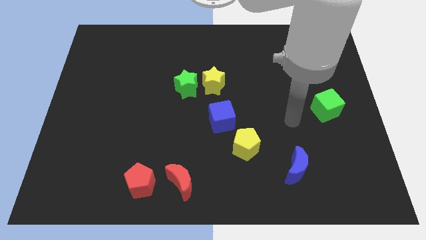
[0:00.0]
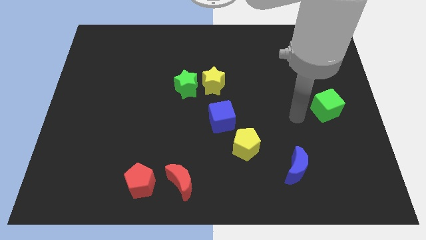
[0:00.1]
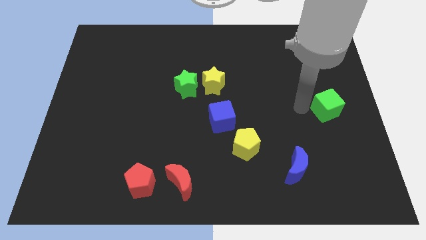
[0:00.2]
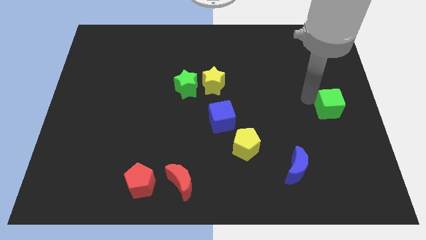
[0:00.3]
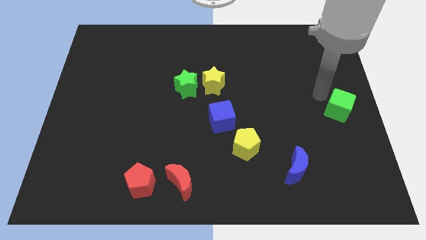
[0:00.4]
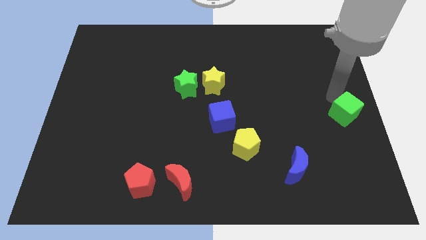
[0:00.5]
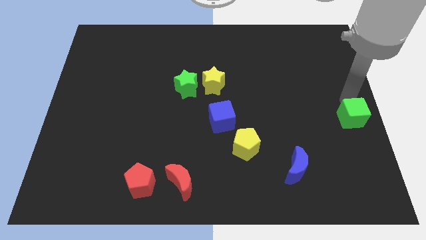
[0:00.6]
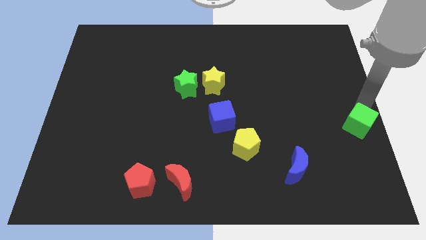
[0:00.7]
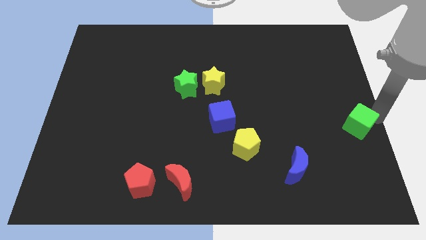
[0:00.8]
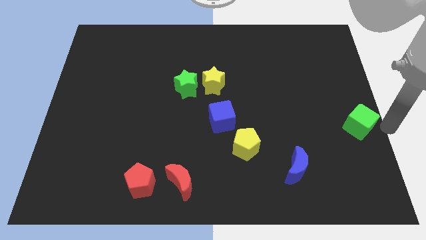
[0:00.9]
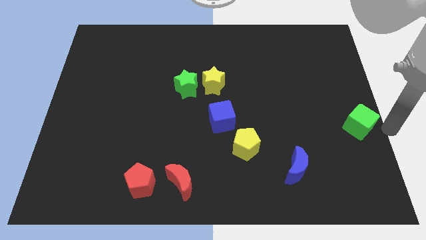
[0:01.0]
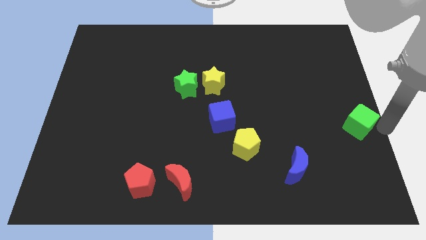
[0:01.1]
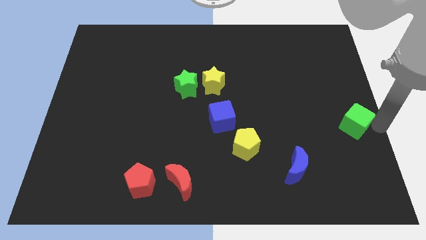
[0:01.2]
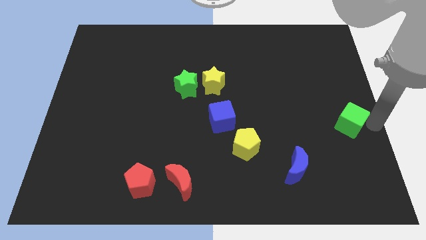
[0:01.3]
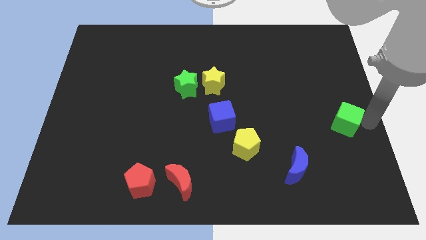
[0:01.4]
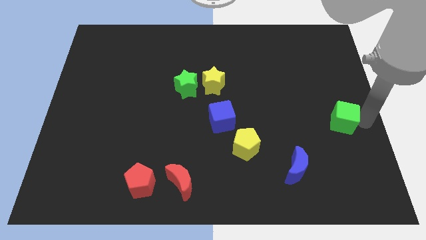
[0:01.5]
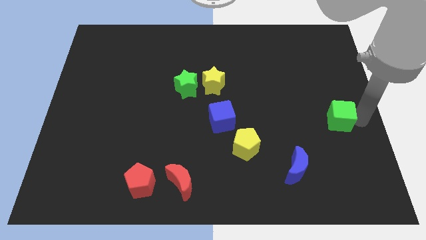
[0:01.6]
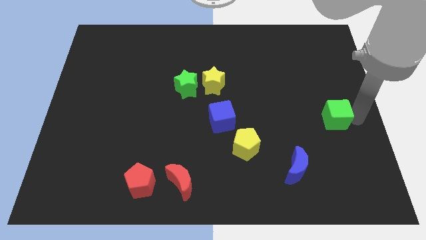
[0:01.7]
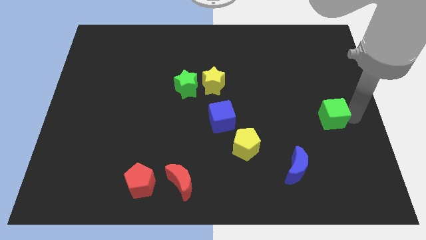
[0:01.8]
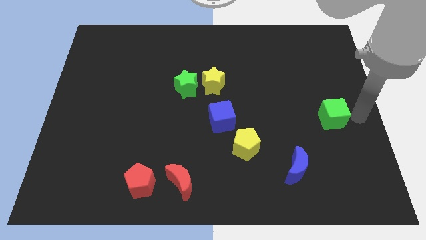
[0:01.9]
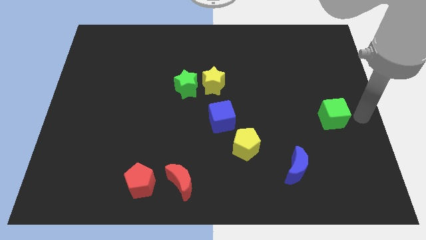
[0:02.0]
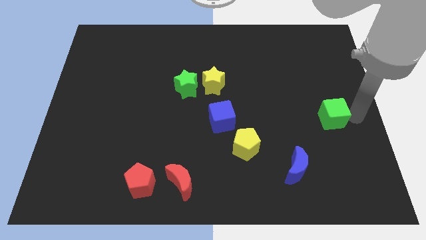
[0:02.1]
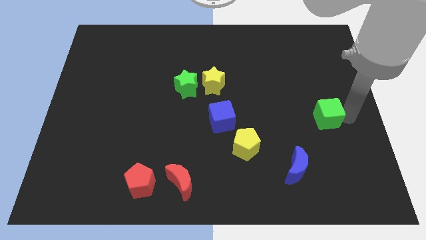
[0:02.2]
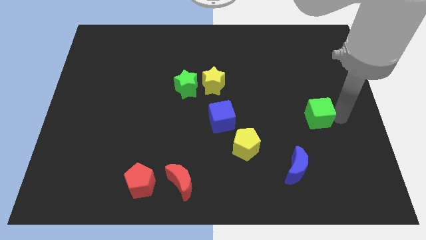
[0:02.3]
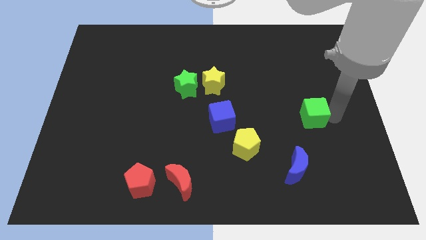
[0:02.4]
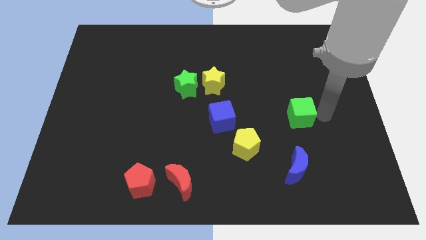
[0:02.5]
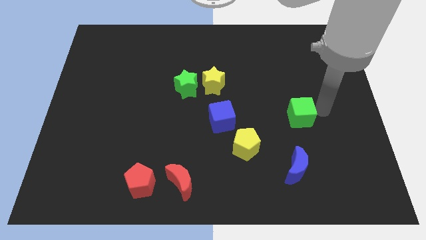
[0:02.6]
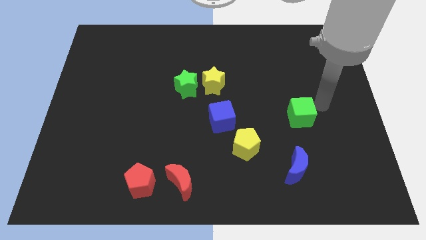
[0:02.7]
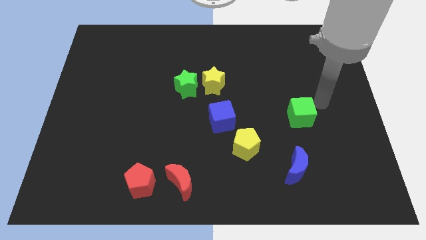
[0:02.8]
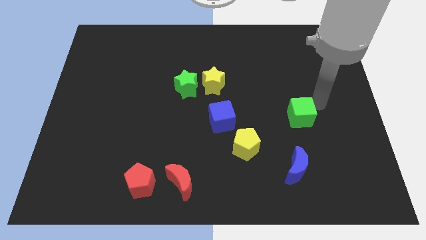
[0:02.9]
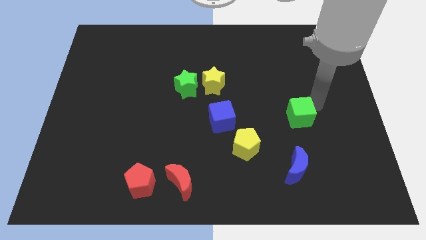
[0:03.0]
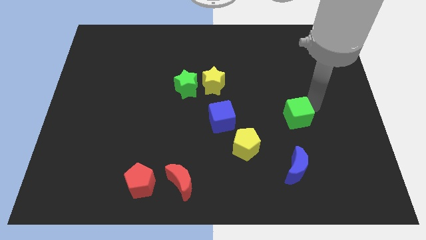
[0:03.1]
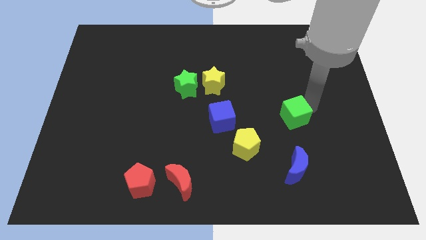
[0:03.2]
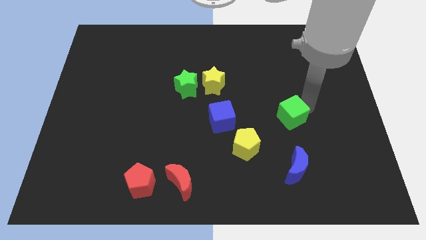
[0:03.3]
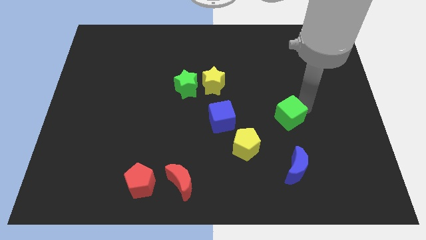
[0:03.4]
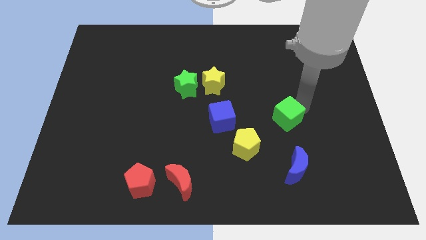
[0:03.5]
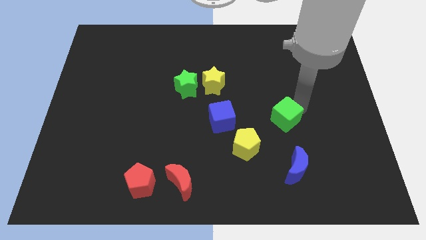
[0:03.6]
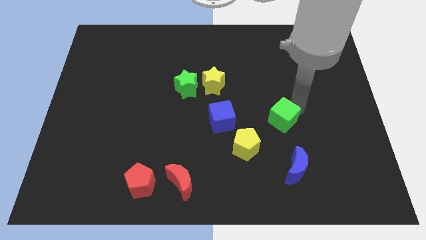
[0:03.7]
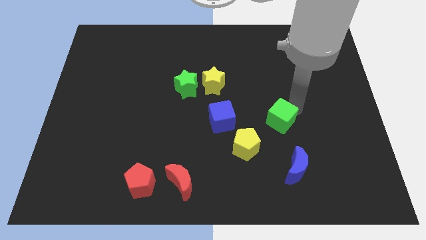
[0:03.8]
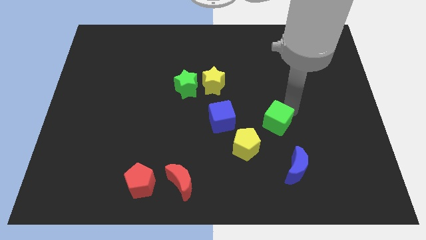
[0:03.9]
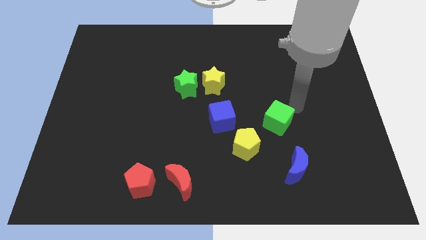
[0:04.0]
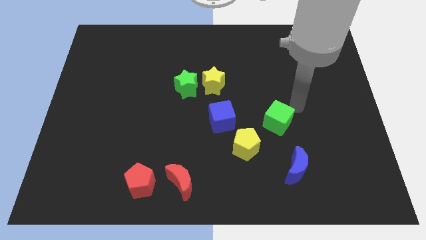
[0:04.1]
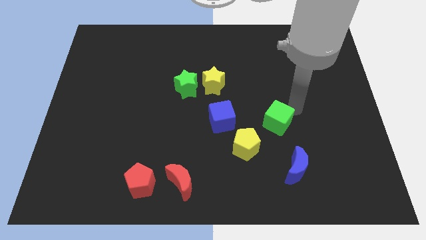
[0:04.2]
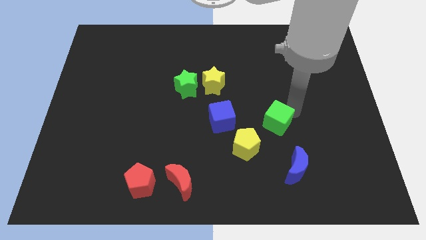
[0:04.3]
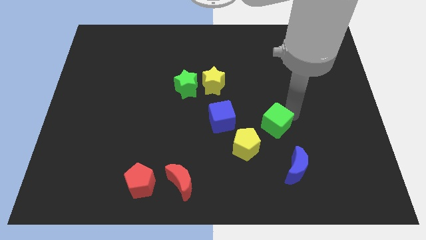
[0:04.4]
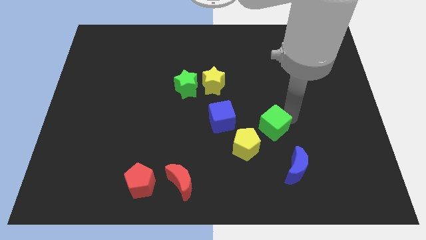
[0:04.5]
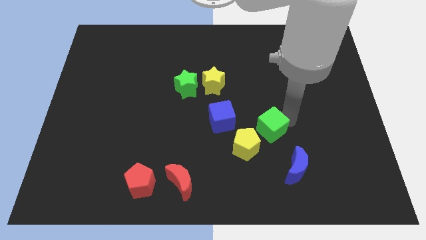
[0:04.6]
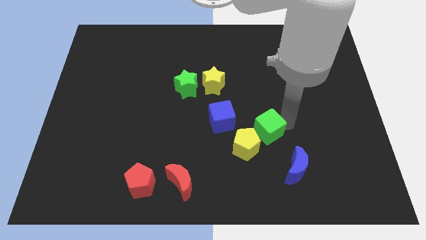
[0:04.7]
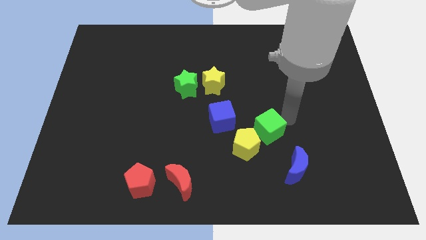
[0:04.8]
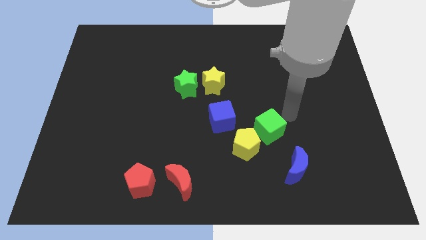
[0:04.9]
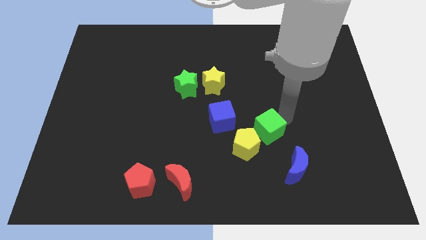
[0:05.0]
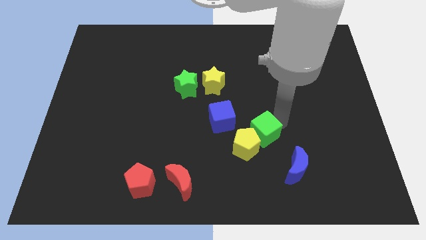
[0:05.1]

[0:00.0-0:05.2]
slide the green cube towards the yellow pentagon

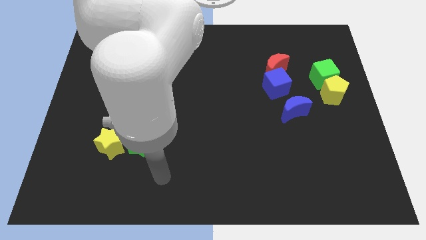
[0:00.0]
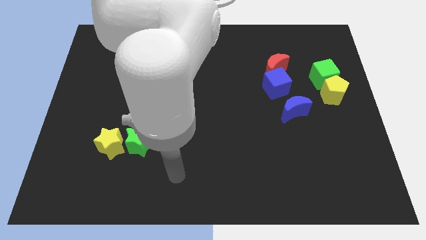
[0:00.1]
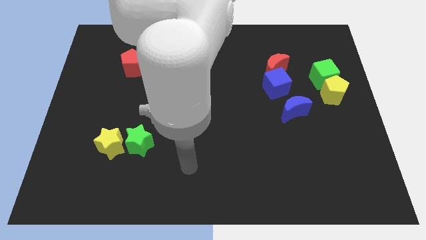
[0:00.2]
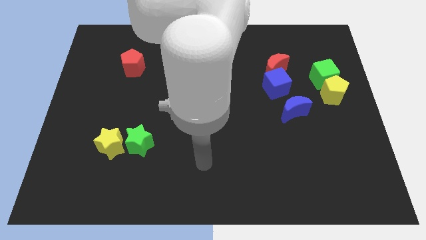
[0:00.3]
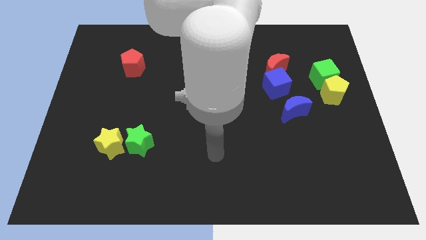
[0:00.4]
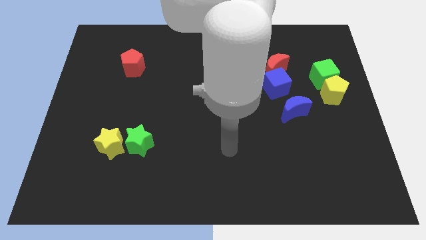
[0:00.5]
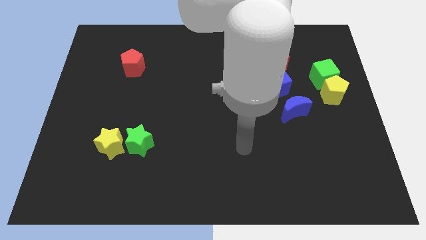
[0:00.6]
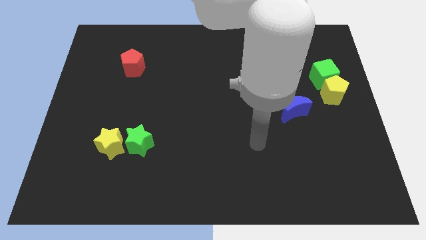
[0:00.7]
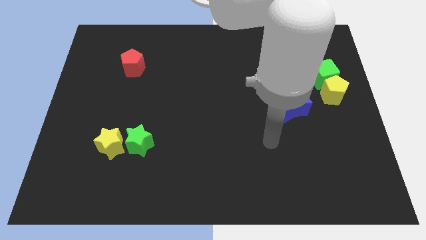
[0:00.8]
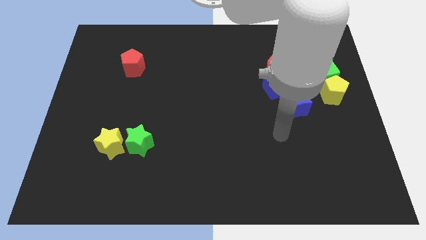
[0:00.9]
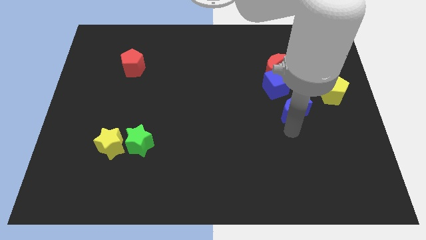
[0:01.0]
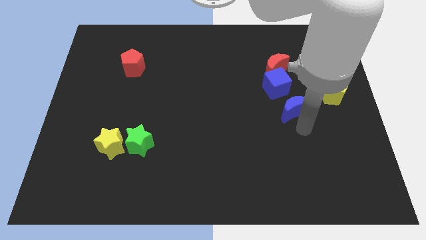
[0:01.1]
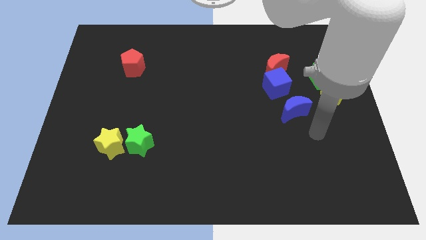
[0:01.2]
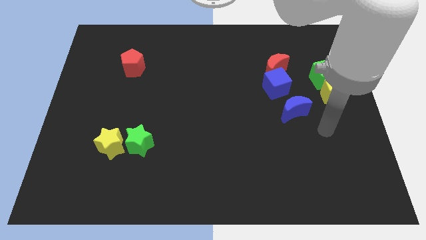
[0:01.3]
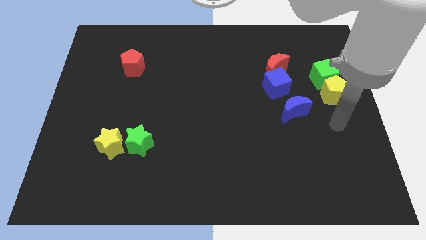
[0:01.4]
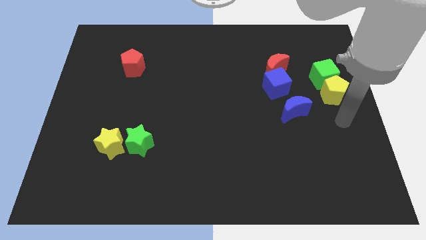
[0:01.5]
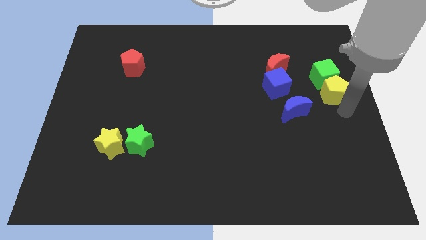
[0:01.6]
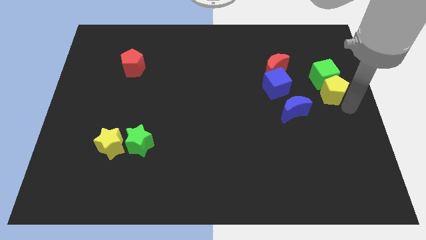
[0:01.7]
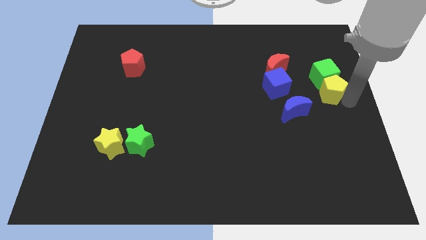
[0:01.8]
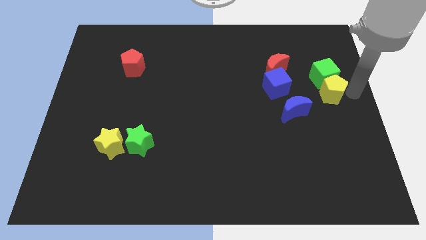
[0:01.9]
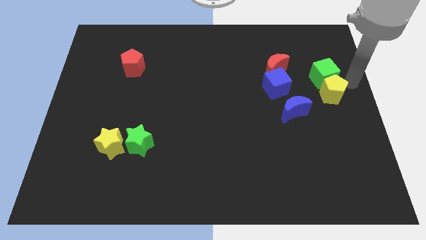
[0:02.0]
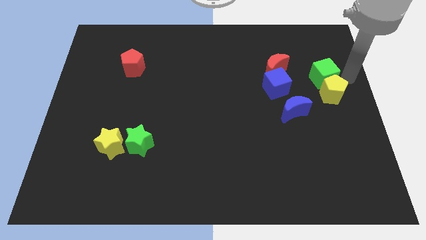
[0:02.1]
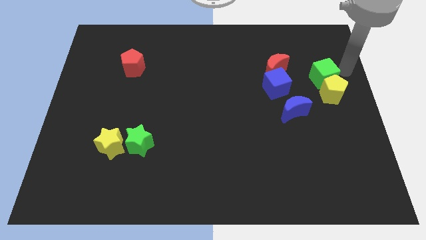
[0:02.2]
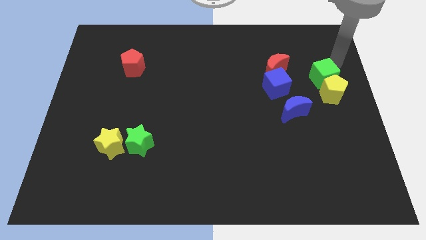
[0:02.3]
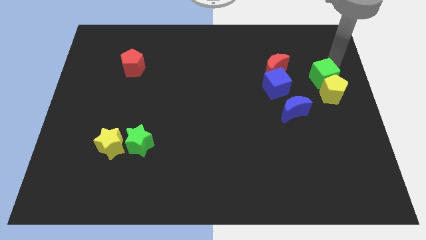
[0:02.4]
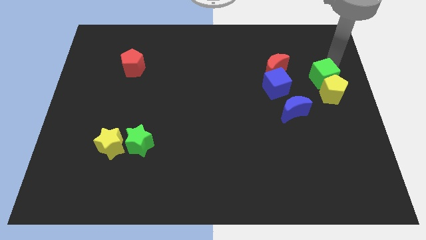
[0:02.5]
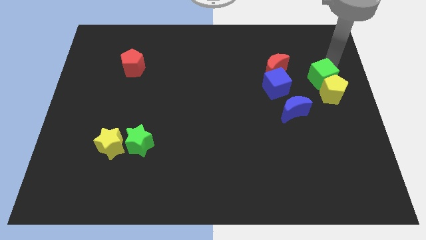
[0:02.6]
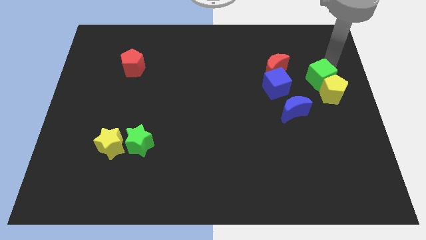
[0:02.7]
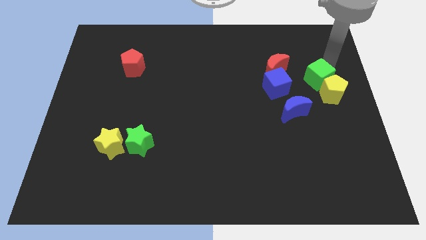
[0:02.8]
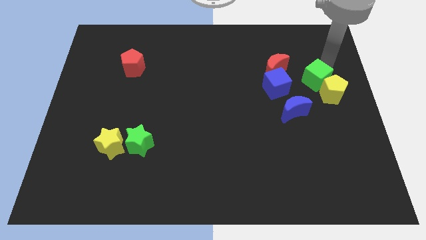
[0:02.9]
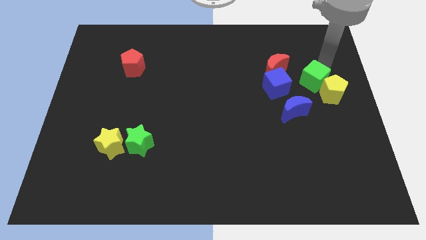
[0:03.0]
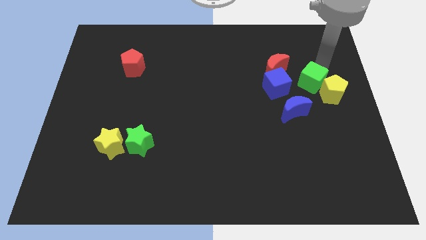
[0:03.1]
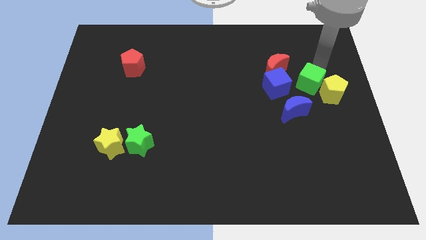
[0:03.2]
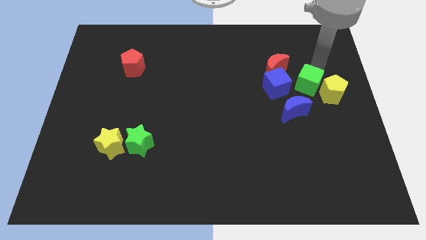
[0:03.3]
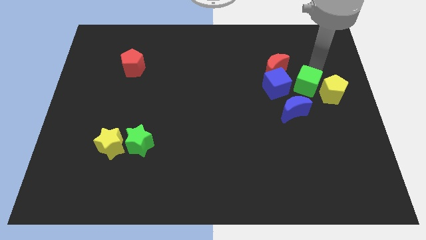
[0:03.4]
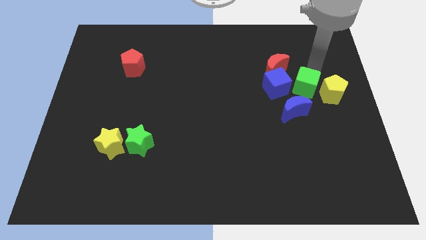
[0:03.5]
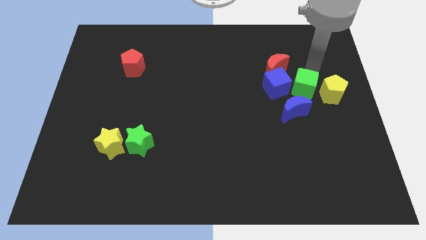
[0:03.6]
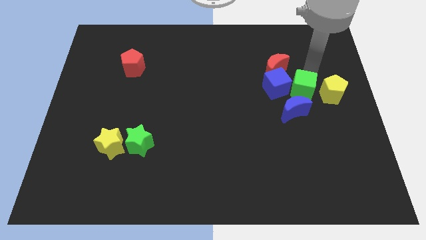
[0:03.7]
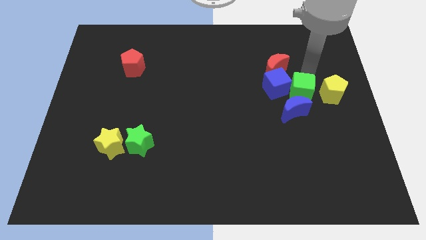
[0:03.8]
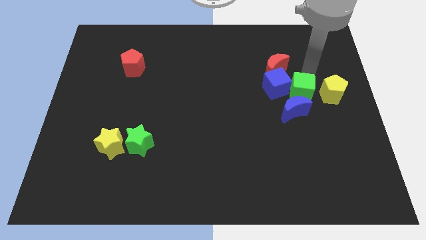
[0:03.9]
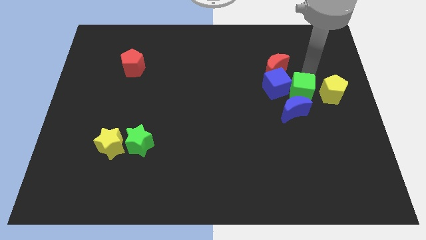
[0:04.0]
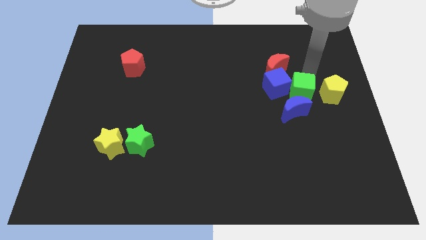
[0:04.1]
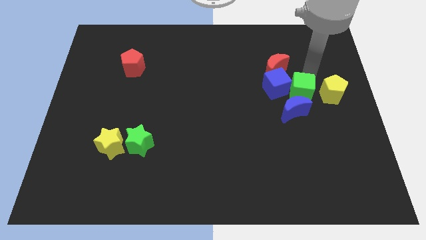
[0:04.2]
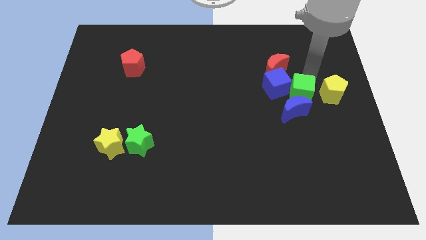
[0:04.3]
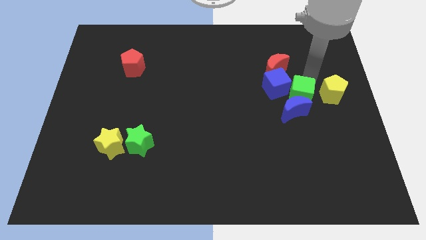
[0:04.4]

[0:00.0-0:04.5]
slide the green cube close to the blue moon
